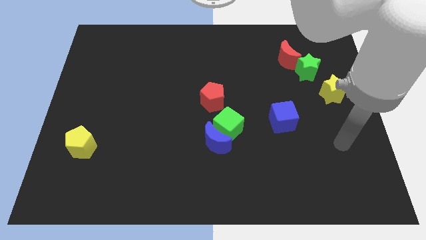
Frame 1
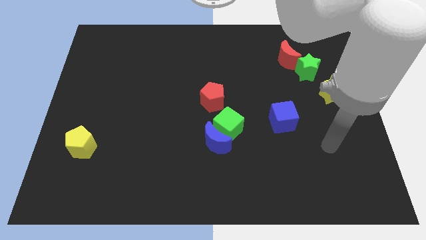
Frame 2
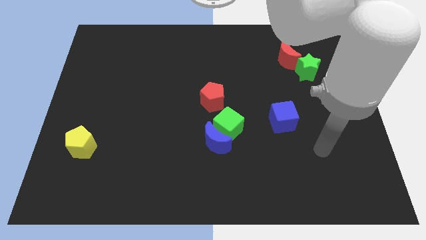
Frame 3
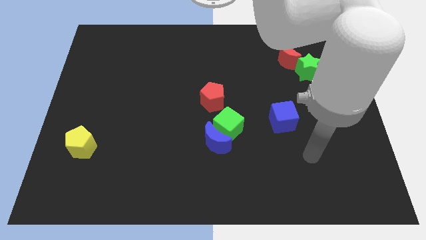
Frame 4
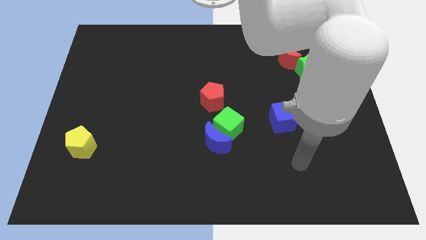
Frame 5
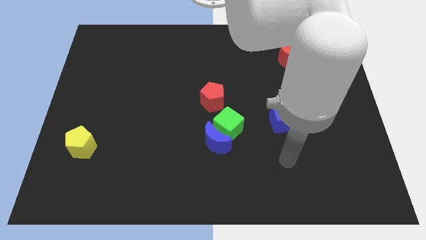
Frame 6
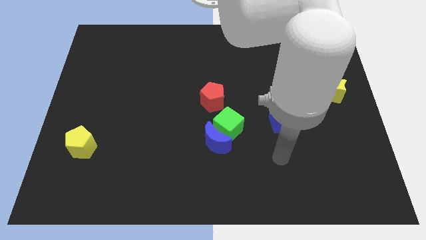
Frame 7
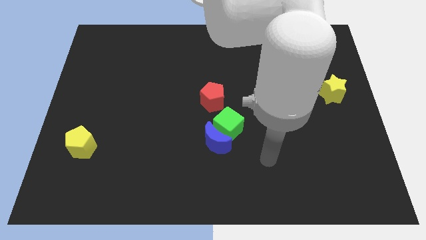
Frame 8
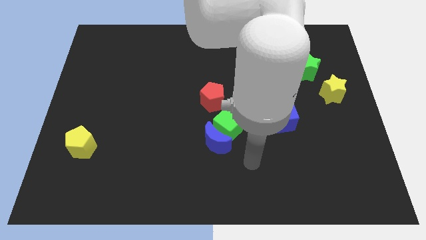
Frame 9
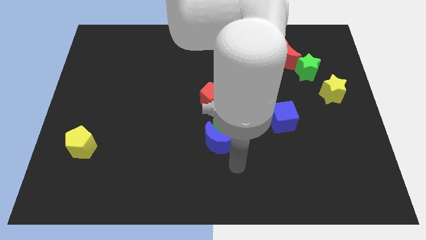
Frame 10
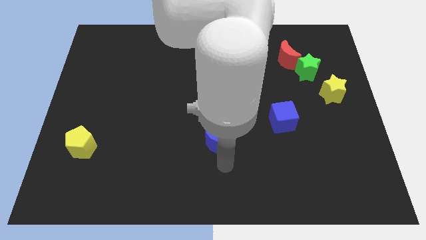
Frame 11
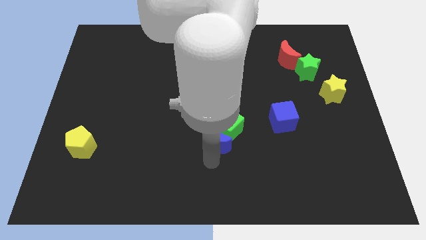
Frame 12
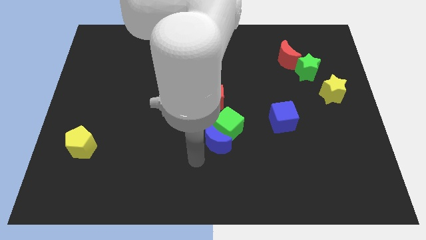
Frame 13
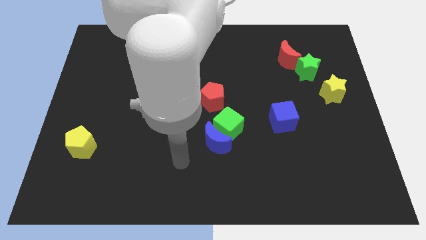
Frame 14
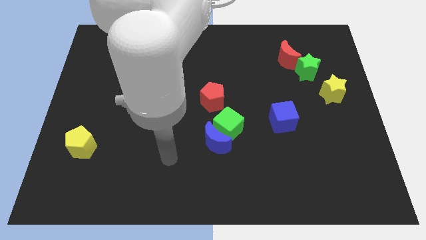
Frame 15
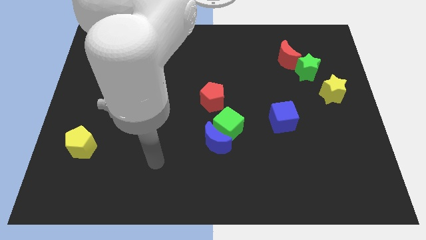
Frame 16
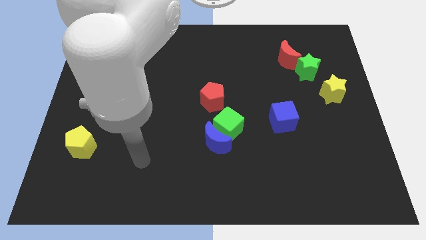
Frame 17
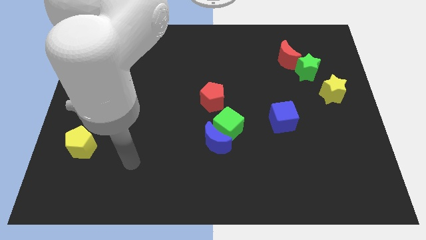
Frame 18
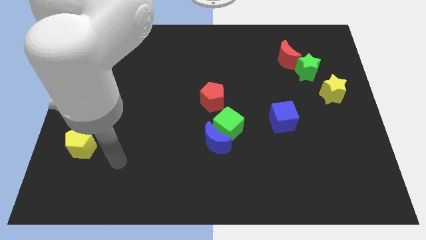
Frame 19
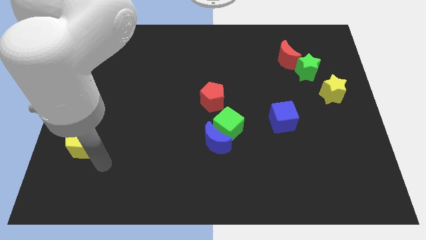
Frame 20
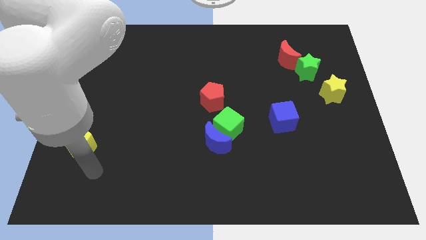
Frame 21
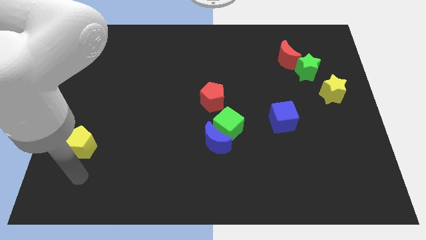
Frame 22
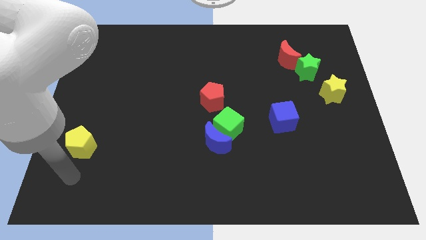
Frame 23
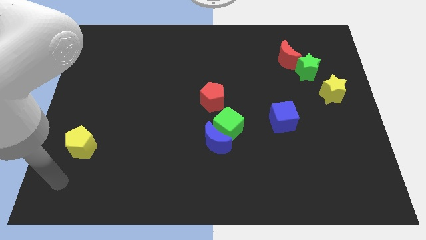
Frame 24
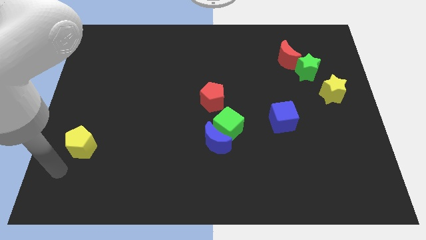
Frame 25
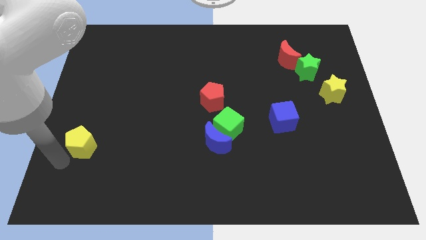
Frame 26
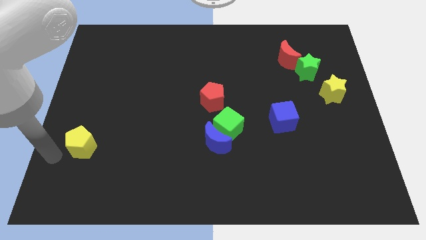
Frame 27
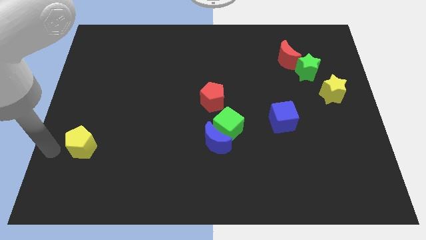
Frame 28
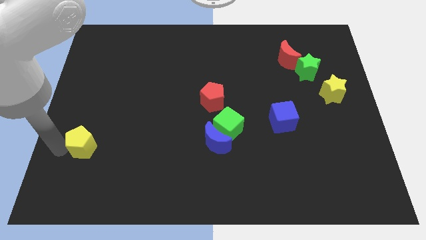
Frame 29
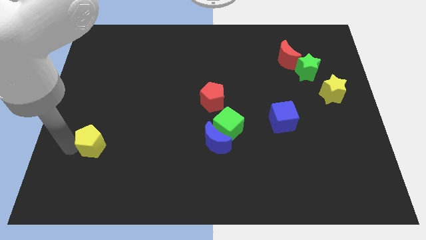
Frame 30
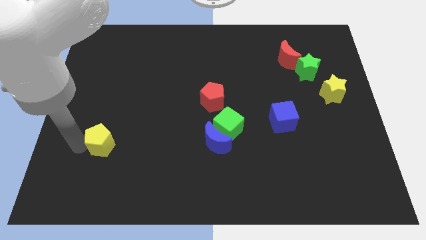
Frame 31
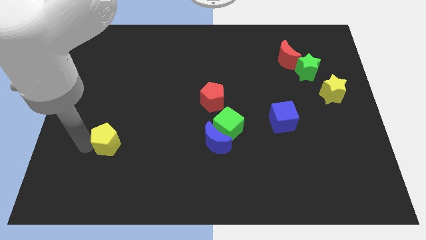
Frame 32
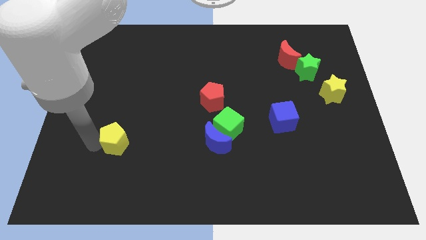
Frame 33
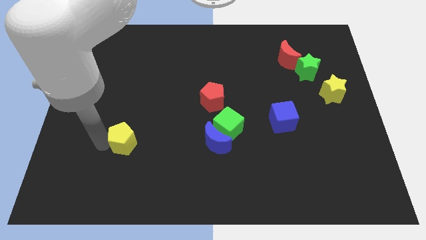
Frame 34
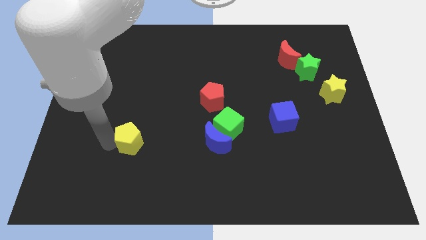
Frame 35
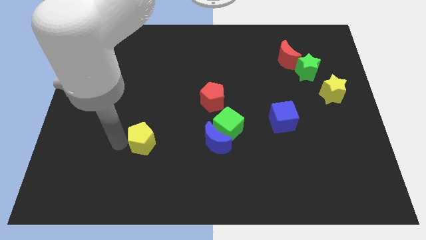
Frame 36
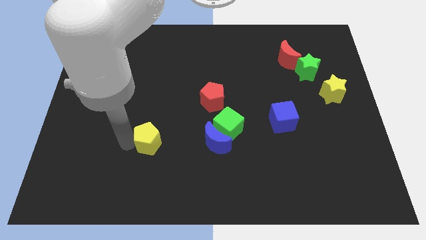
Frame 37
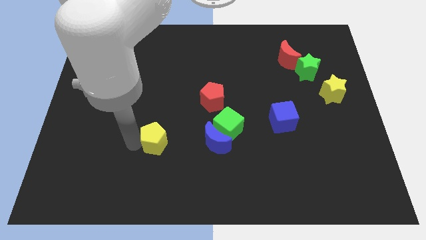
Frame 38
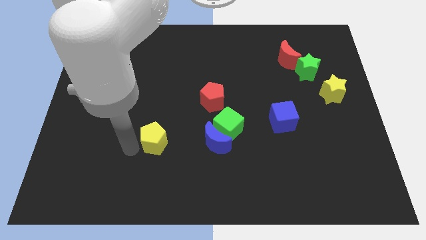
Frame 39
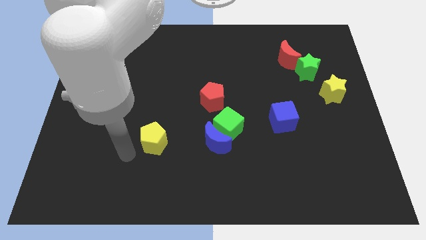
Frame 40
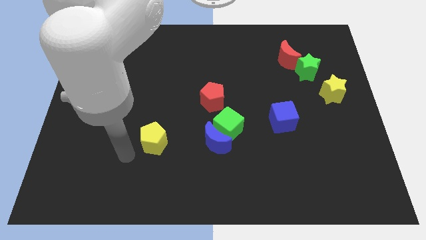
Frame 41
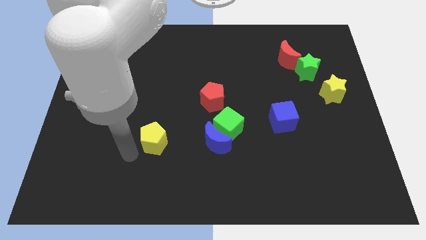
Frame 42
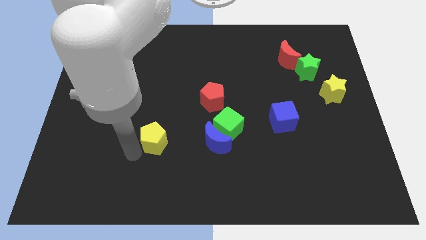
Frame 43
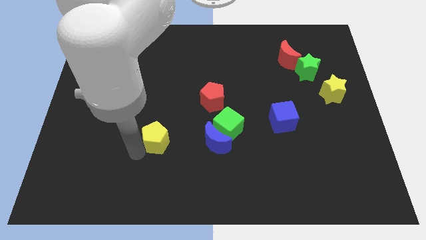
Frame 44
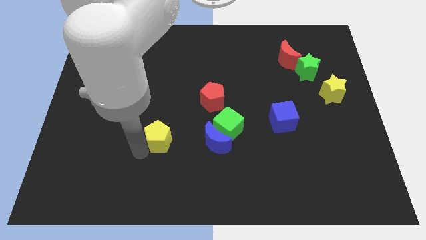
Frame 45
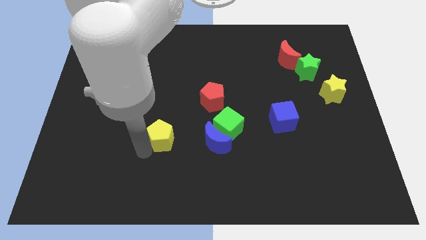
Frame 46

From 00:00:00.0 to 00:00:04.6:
push the yellow pentagon just left of the green cube

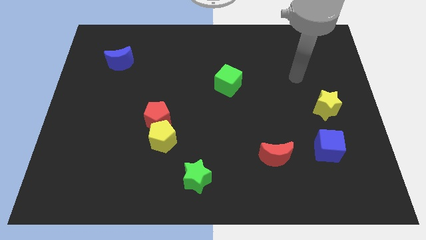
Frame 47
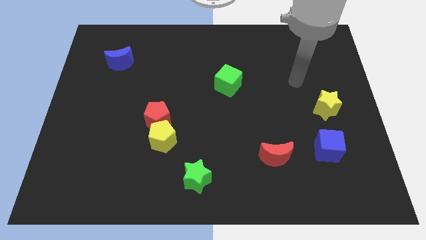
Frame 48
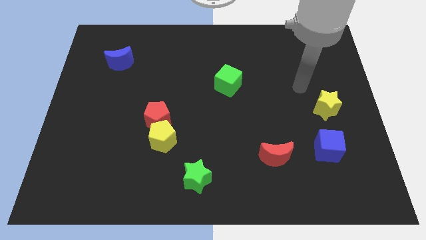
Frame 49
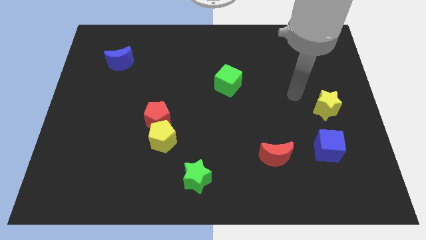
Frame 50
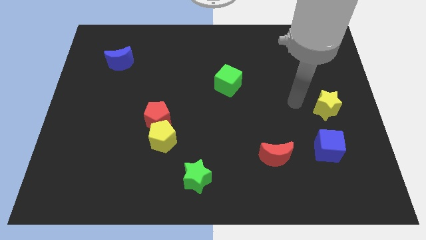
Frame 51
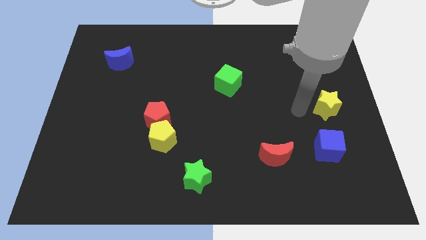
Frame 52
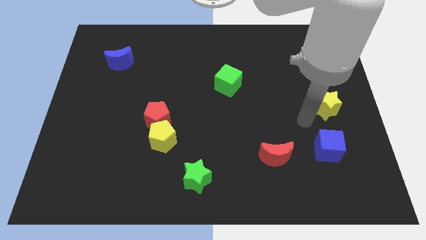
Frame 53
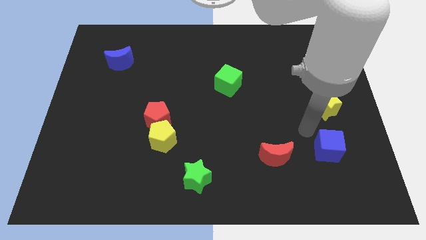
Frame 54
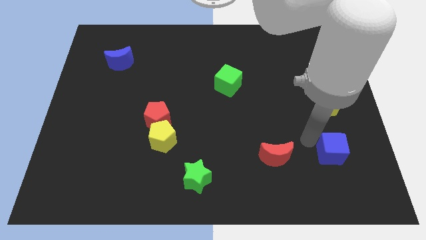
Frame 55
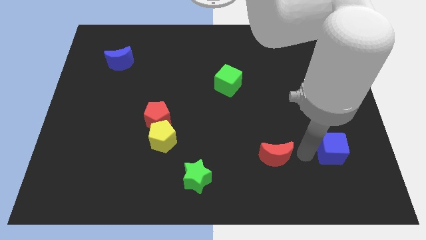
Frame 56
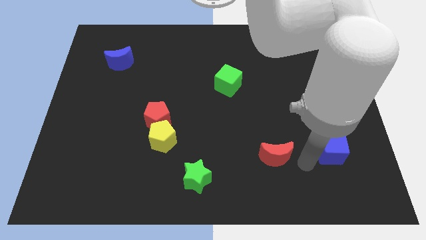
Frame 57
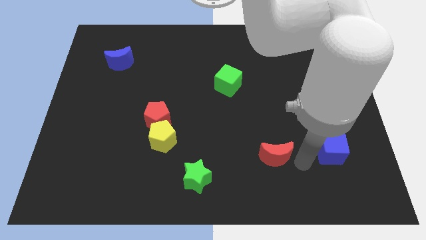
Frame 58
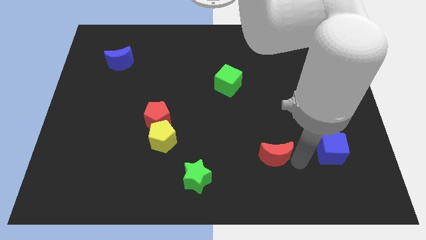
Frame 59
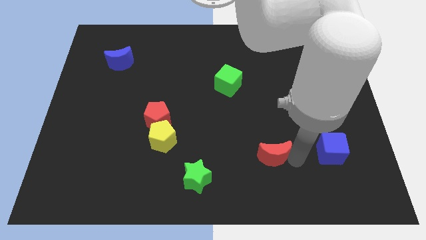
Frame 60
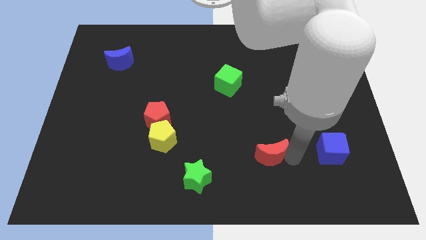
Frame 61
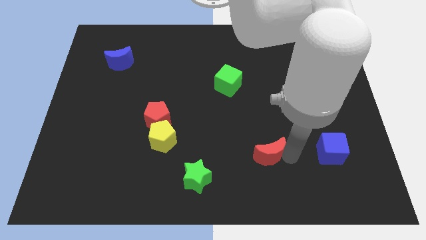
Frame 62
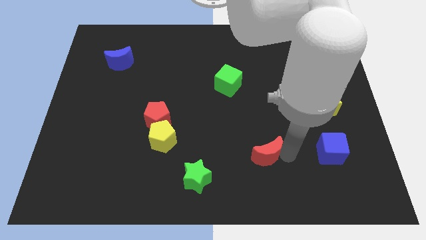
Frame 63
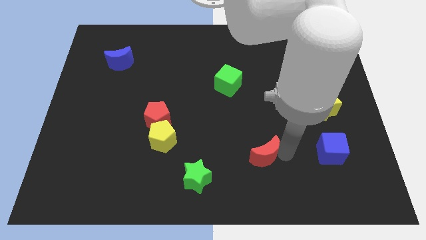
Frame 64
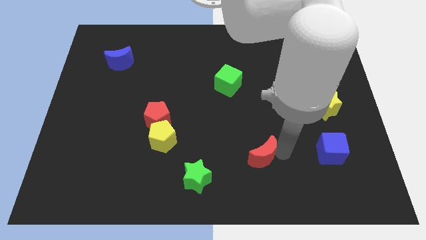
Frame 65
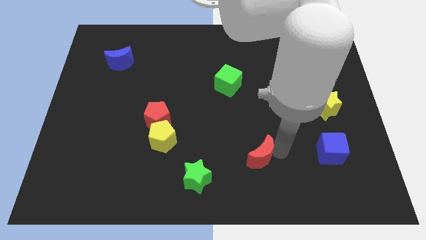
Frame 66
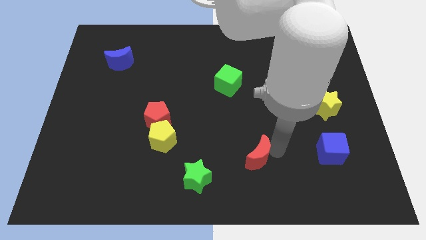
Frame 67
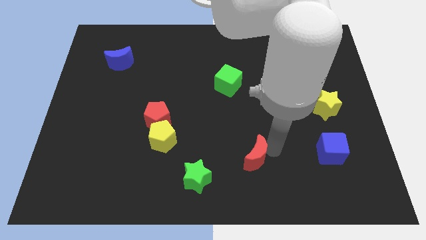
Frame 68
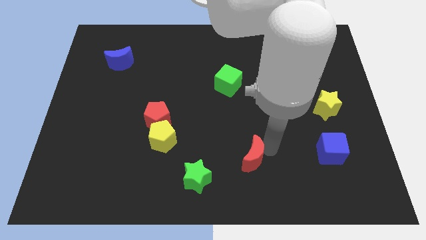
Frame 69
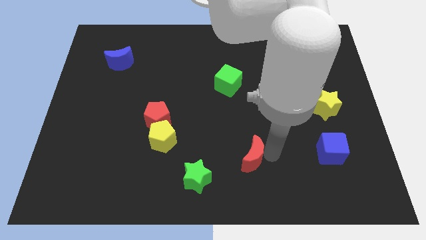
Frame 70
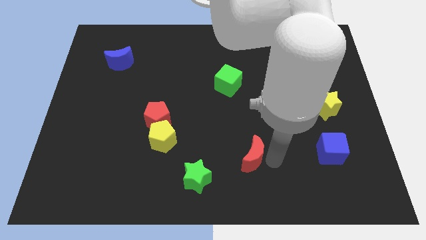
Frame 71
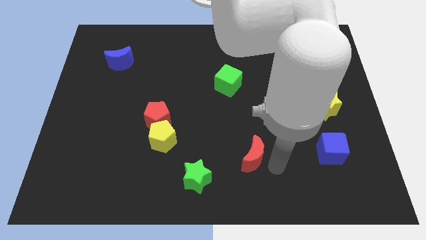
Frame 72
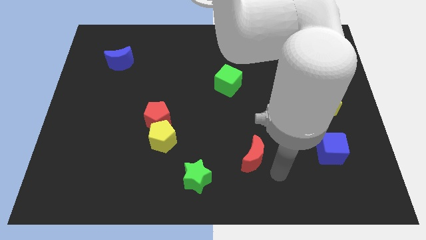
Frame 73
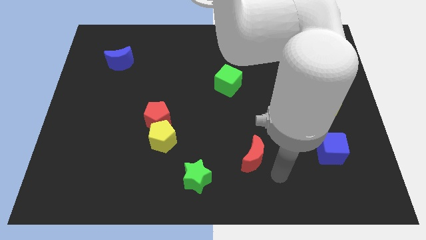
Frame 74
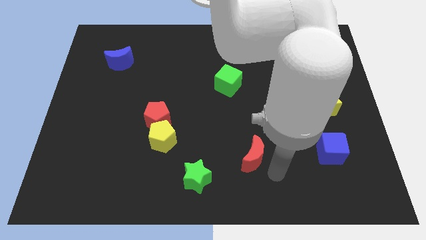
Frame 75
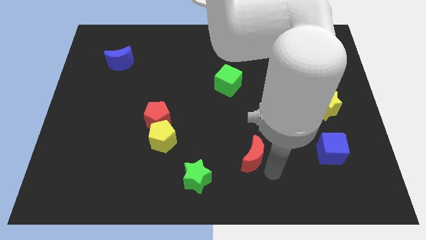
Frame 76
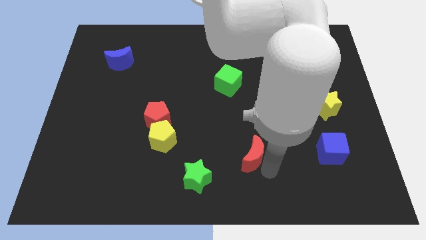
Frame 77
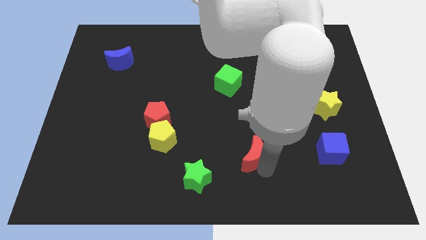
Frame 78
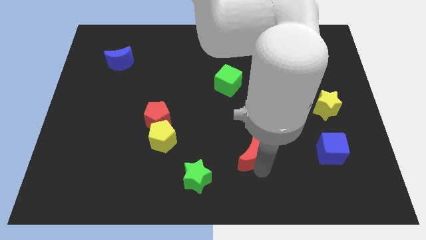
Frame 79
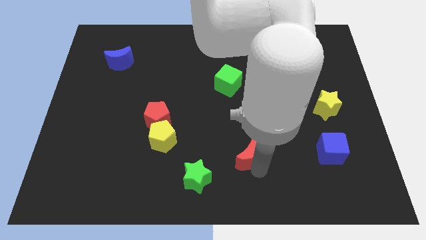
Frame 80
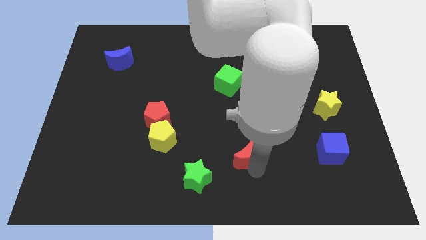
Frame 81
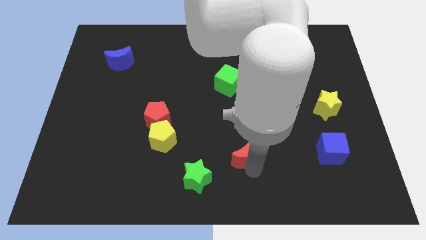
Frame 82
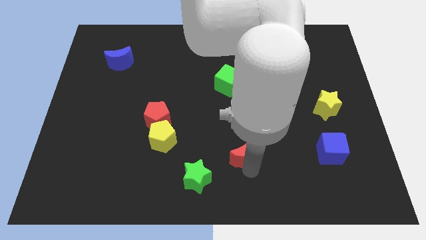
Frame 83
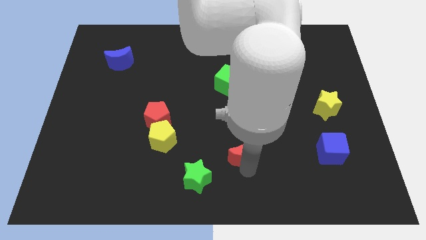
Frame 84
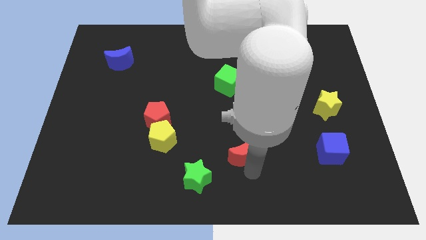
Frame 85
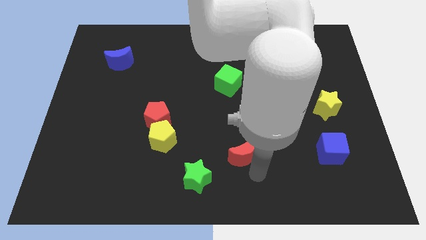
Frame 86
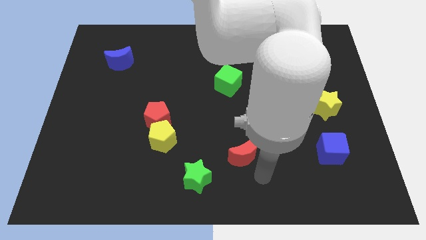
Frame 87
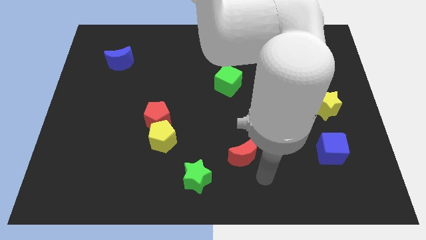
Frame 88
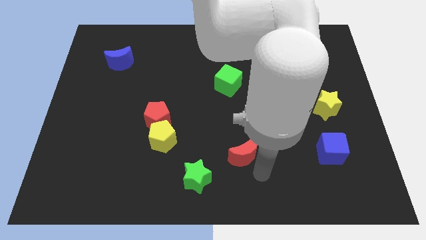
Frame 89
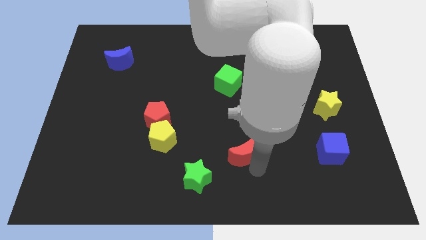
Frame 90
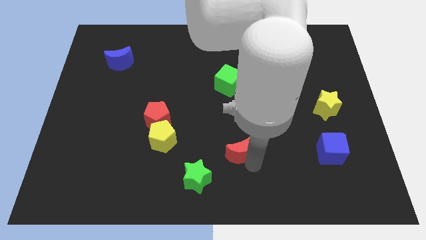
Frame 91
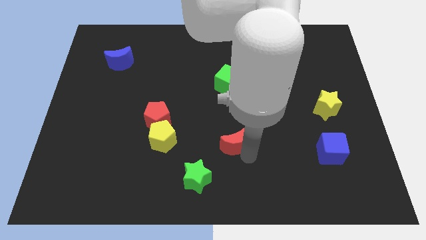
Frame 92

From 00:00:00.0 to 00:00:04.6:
push the red moon to the right side of the yellow pentagon
